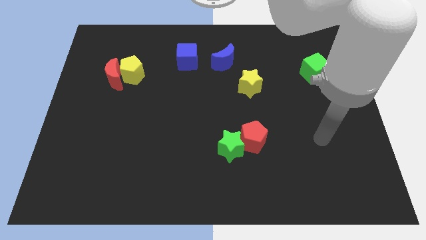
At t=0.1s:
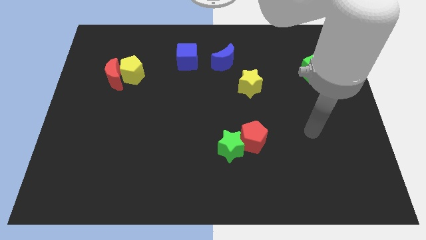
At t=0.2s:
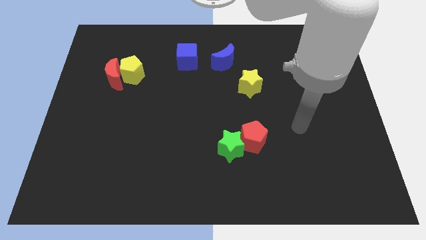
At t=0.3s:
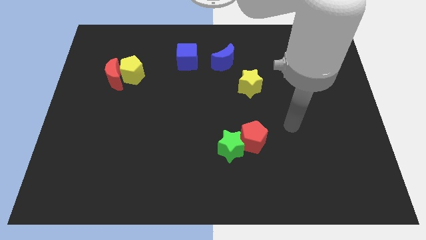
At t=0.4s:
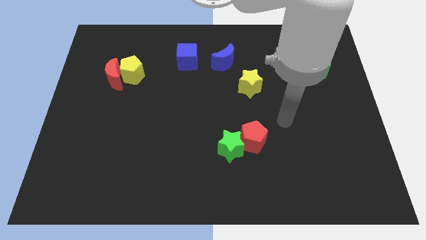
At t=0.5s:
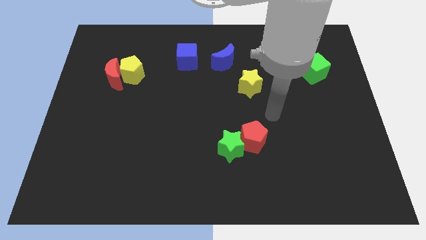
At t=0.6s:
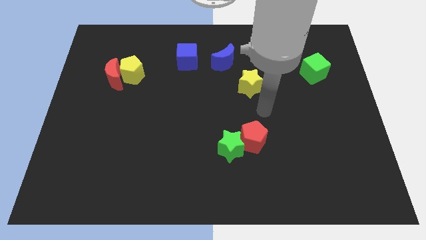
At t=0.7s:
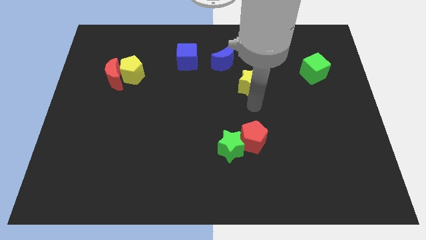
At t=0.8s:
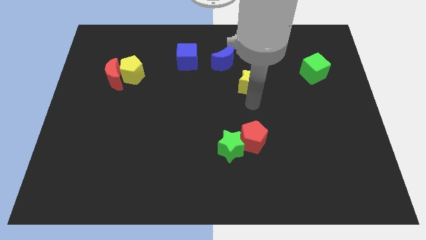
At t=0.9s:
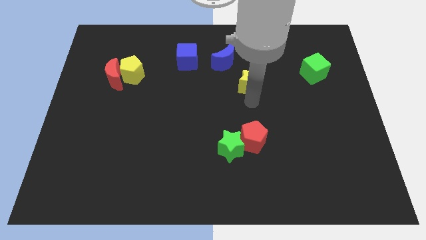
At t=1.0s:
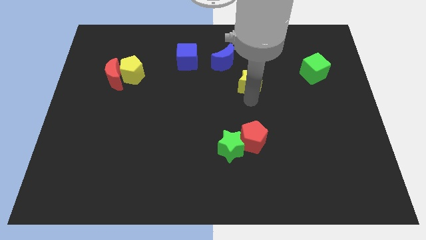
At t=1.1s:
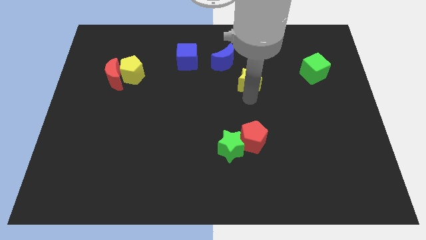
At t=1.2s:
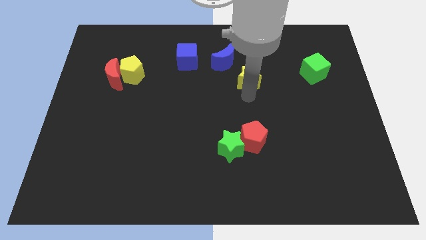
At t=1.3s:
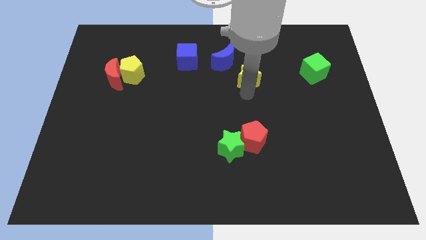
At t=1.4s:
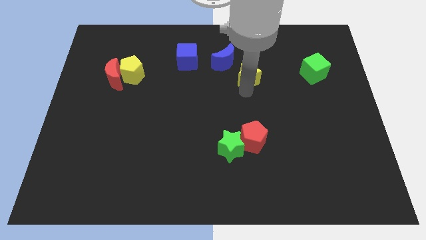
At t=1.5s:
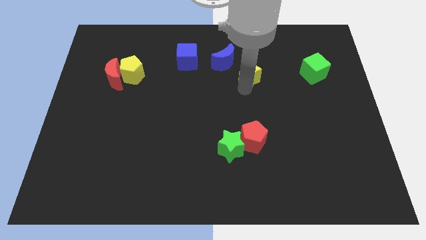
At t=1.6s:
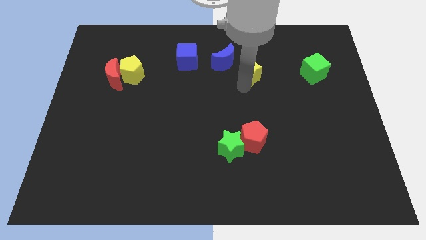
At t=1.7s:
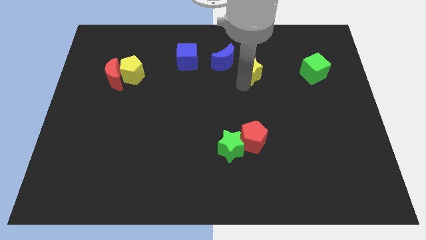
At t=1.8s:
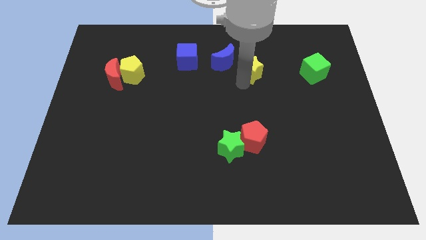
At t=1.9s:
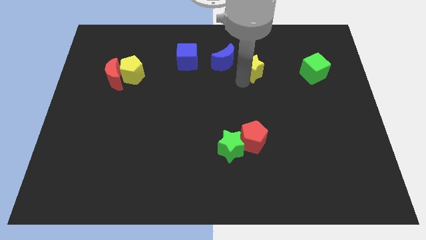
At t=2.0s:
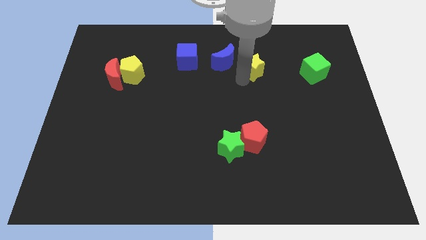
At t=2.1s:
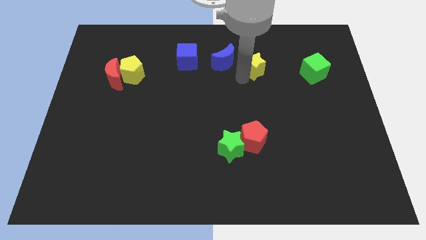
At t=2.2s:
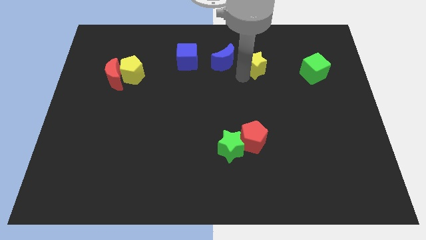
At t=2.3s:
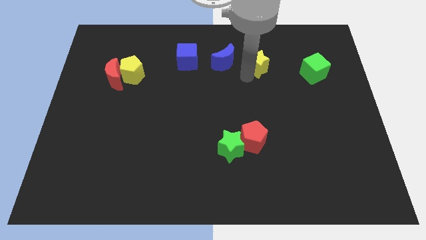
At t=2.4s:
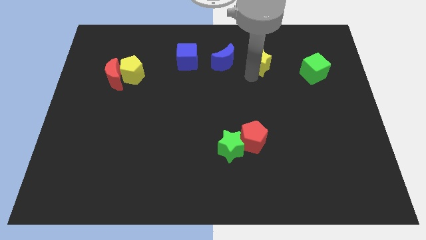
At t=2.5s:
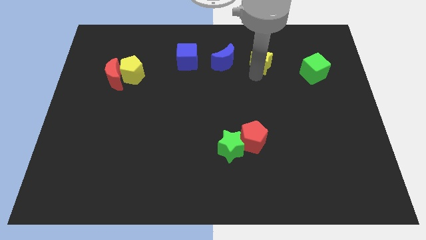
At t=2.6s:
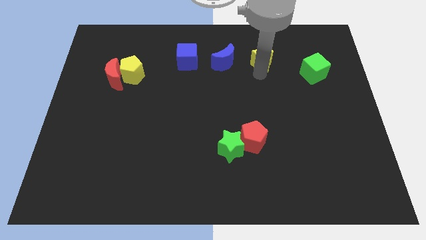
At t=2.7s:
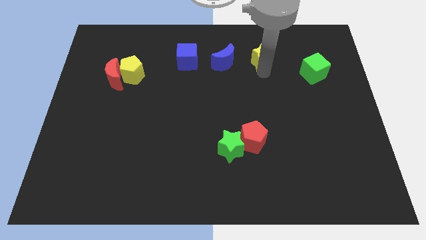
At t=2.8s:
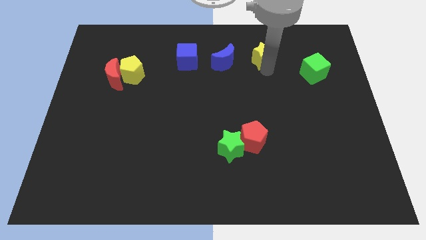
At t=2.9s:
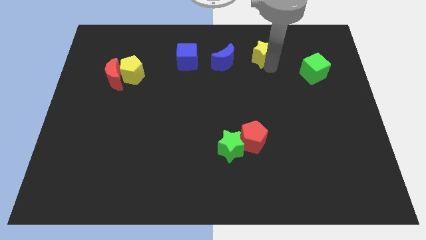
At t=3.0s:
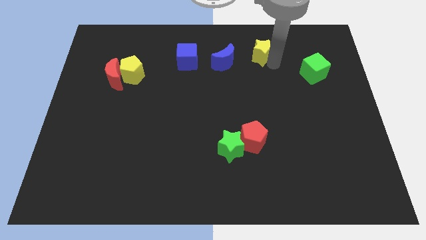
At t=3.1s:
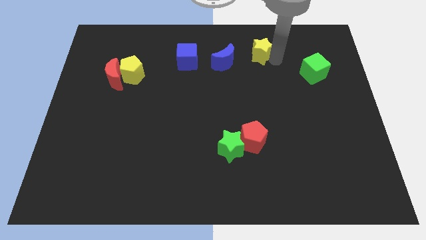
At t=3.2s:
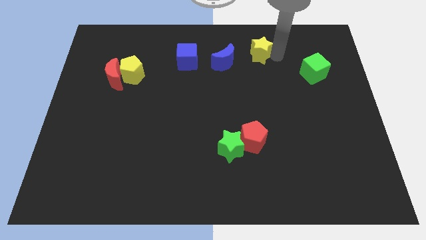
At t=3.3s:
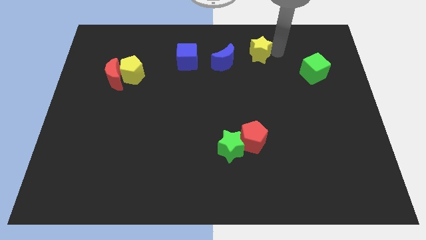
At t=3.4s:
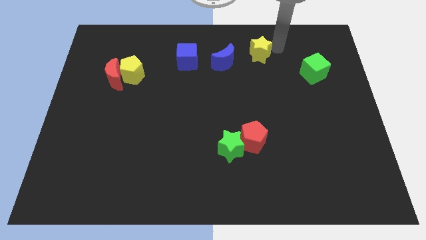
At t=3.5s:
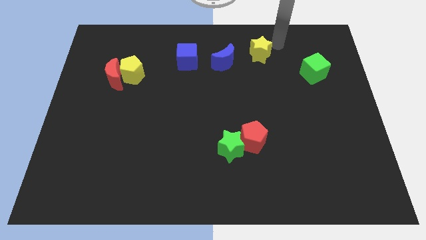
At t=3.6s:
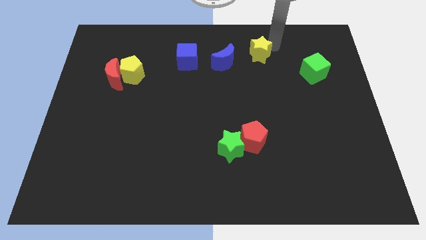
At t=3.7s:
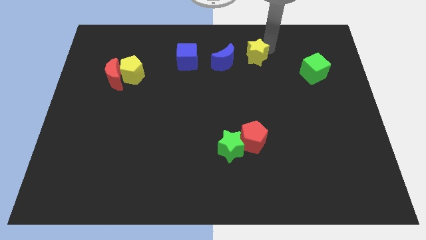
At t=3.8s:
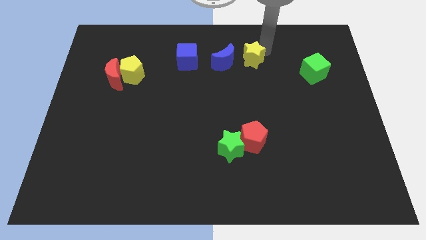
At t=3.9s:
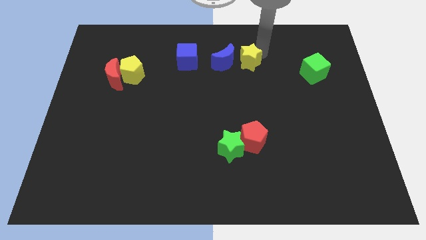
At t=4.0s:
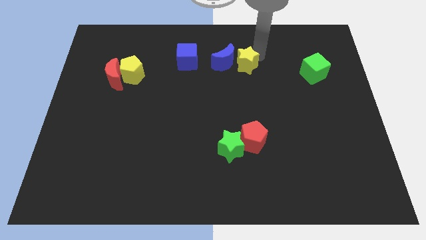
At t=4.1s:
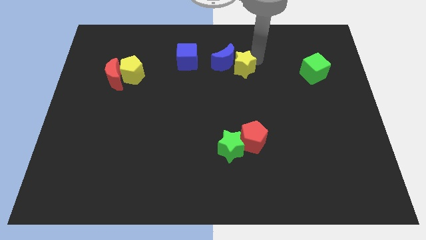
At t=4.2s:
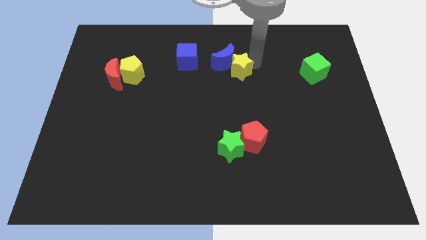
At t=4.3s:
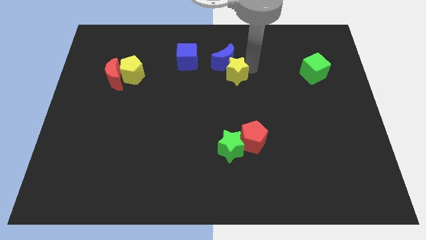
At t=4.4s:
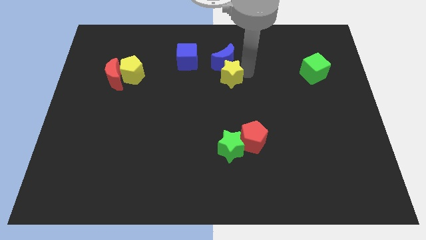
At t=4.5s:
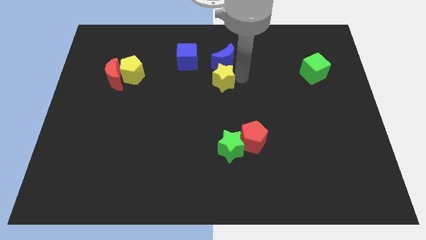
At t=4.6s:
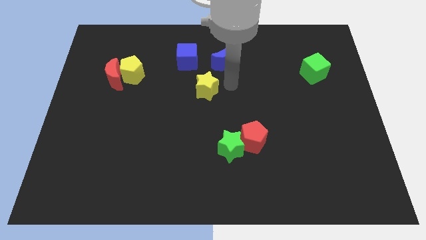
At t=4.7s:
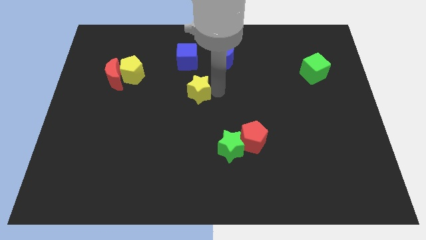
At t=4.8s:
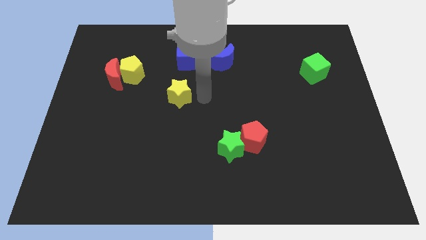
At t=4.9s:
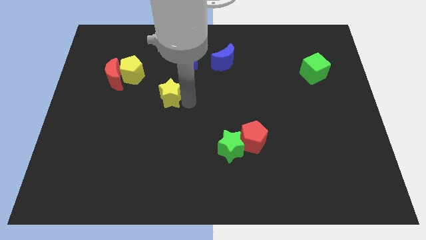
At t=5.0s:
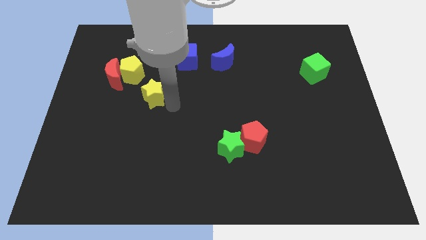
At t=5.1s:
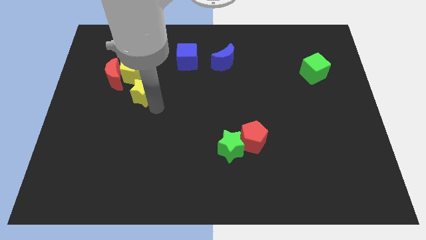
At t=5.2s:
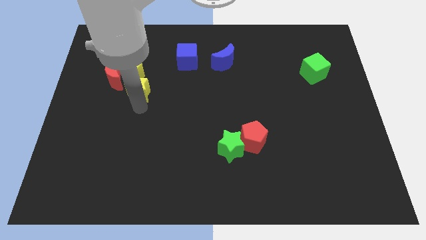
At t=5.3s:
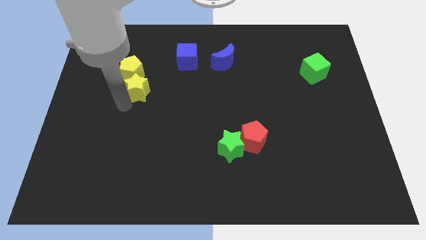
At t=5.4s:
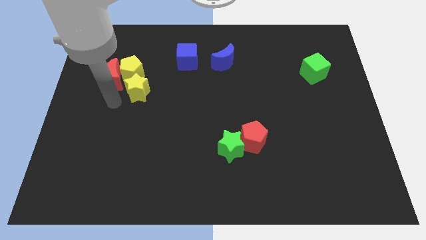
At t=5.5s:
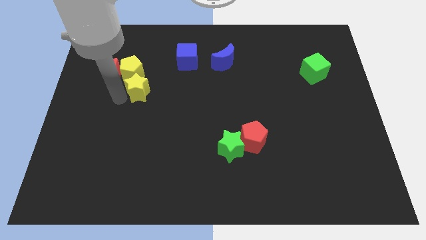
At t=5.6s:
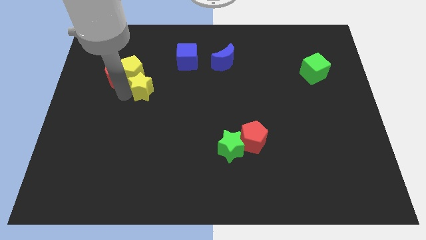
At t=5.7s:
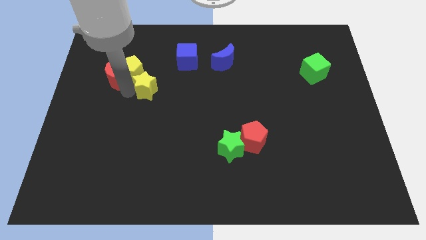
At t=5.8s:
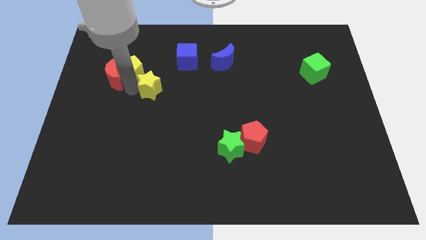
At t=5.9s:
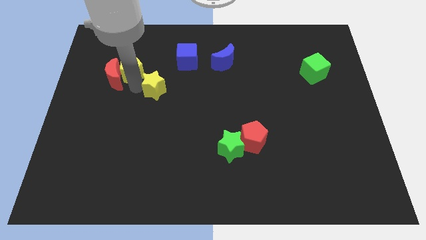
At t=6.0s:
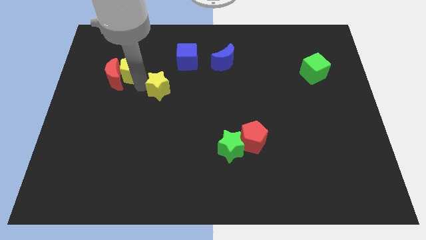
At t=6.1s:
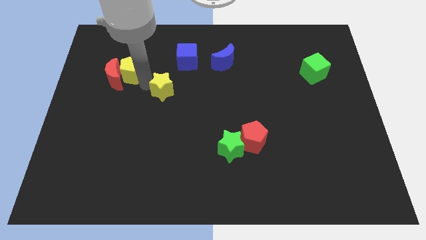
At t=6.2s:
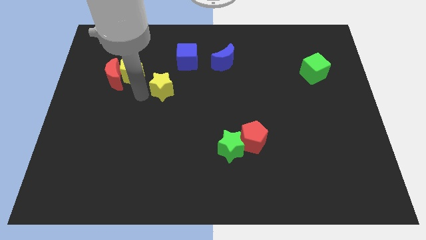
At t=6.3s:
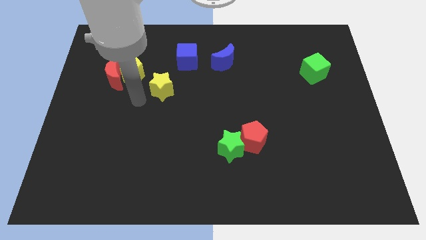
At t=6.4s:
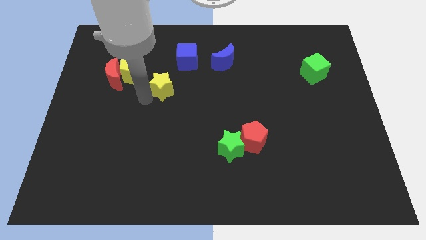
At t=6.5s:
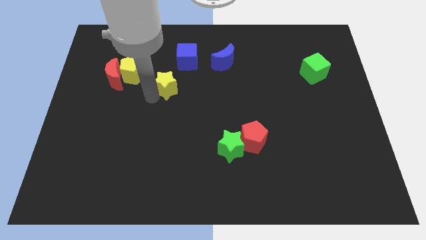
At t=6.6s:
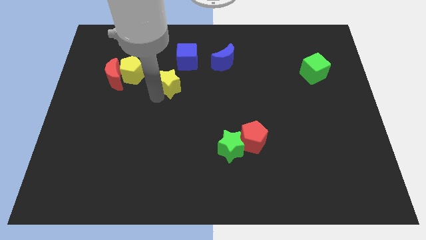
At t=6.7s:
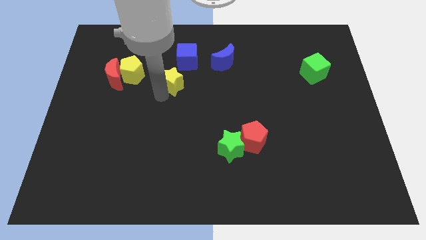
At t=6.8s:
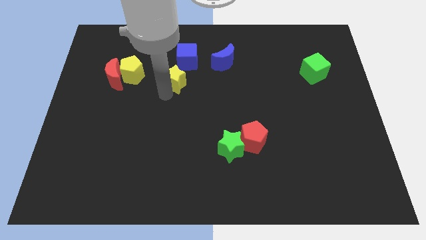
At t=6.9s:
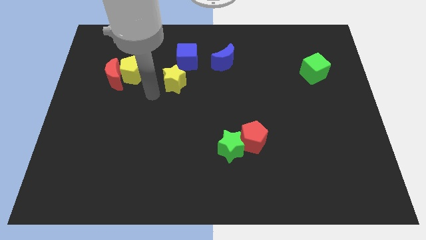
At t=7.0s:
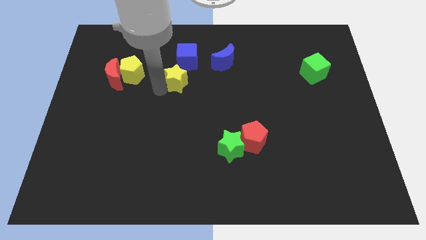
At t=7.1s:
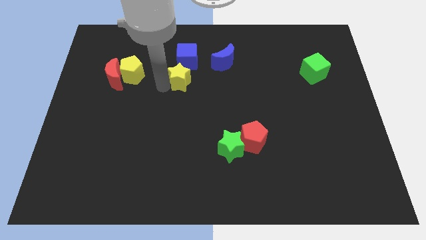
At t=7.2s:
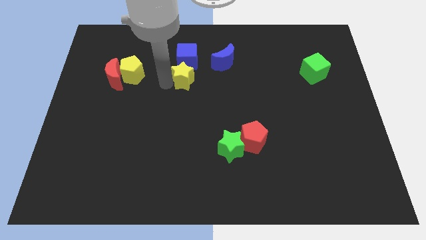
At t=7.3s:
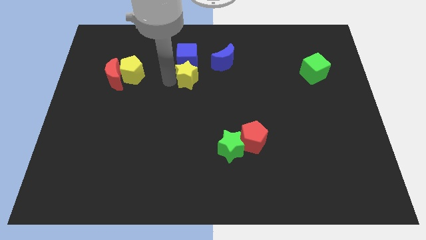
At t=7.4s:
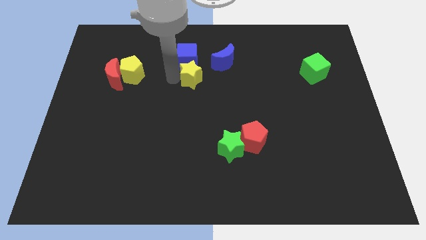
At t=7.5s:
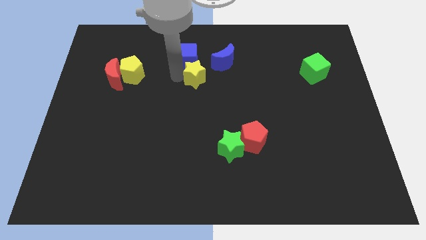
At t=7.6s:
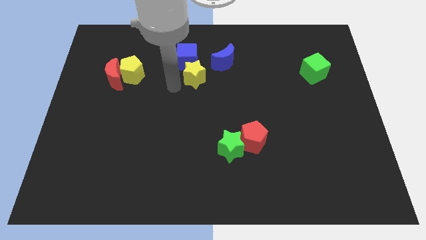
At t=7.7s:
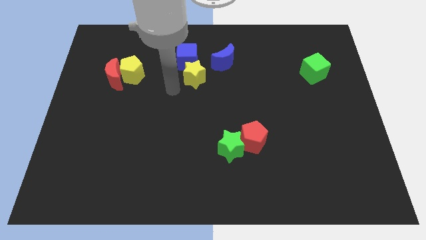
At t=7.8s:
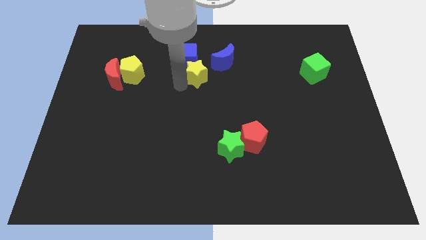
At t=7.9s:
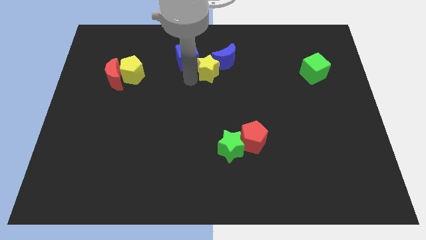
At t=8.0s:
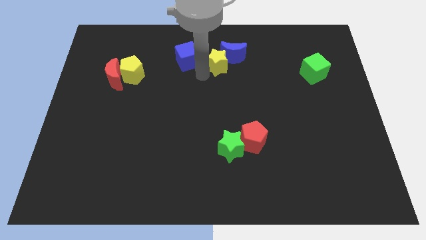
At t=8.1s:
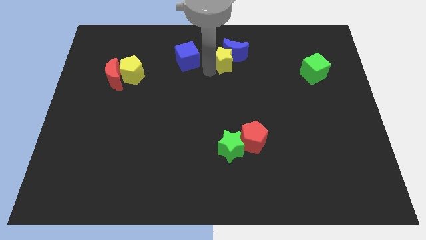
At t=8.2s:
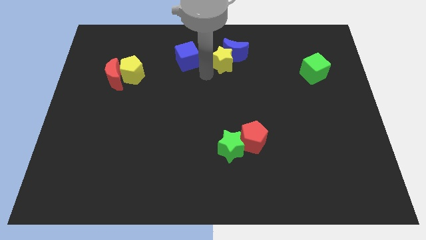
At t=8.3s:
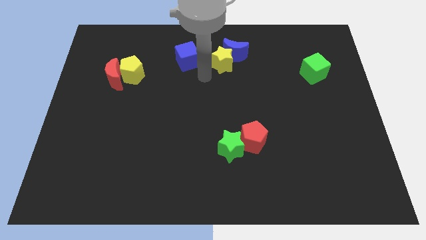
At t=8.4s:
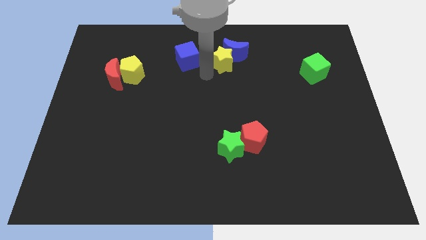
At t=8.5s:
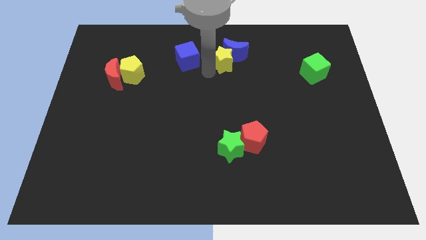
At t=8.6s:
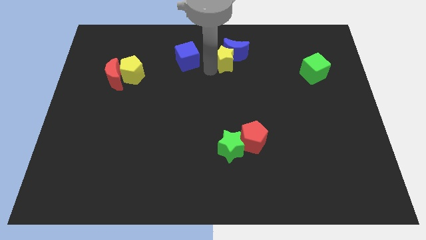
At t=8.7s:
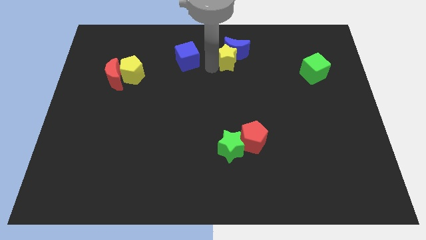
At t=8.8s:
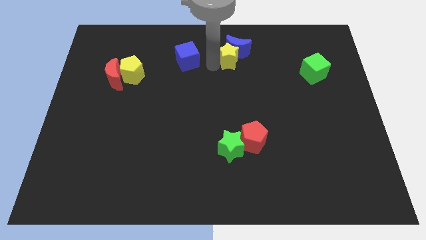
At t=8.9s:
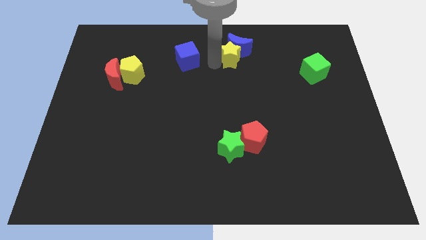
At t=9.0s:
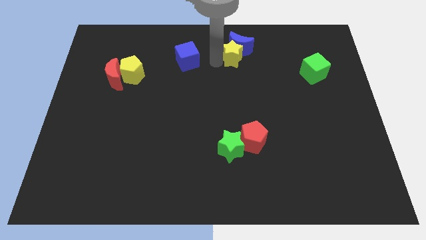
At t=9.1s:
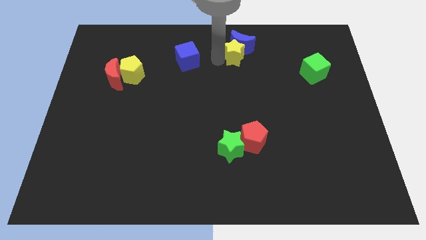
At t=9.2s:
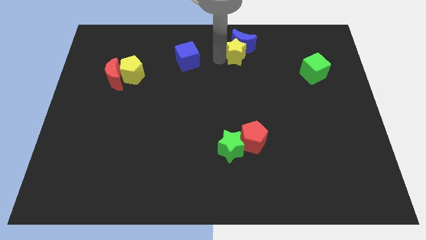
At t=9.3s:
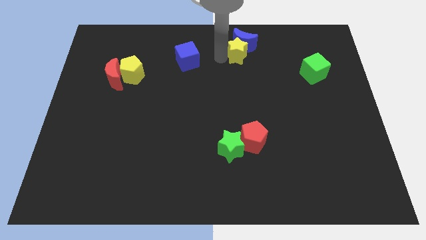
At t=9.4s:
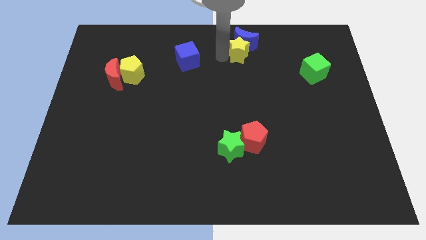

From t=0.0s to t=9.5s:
put the yellow star to the top
